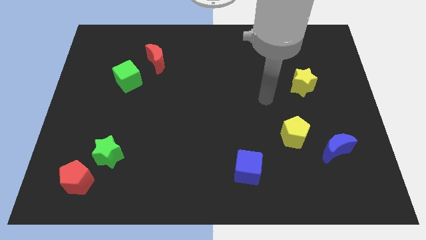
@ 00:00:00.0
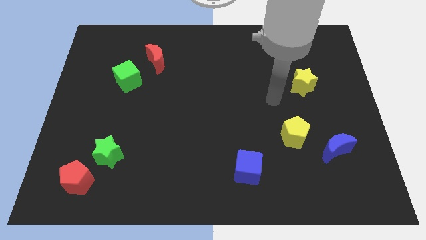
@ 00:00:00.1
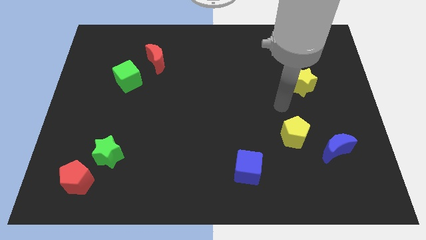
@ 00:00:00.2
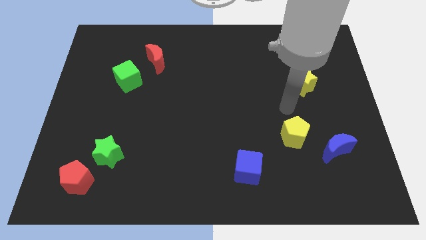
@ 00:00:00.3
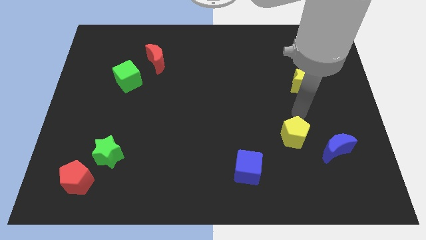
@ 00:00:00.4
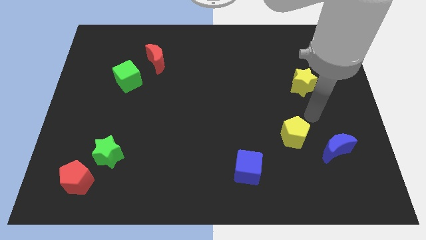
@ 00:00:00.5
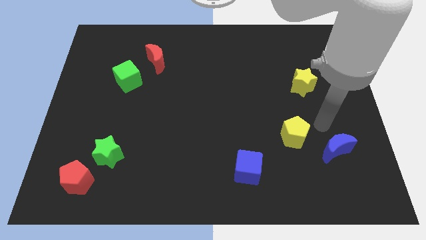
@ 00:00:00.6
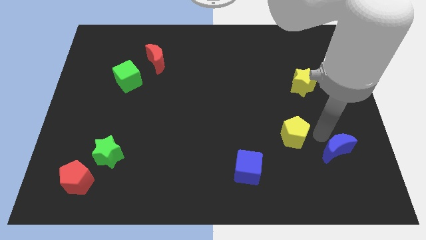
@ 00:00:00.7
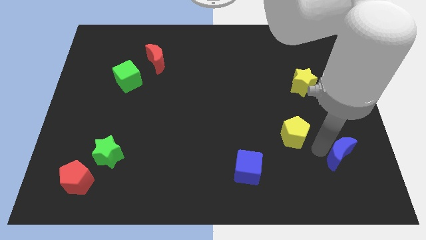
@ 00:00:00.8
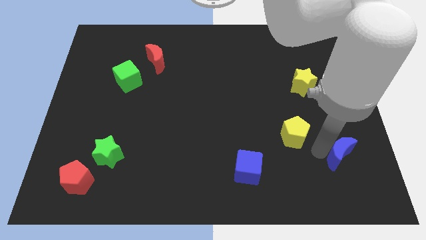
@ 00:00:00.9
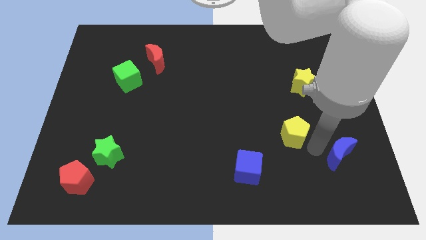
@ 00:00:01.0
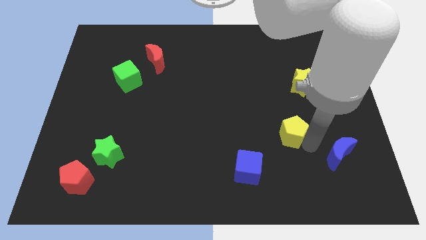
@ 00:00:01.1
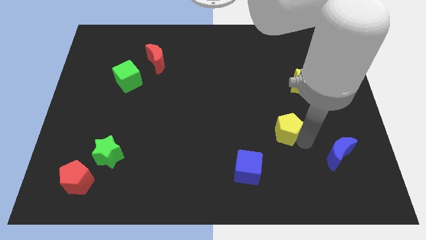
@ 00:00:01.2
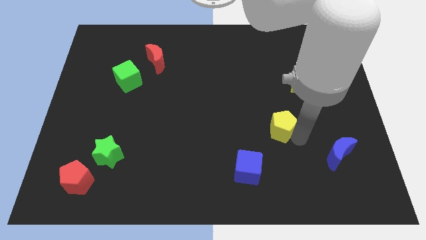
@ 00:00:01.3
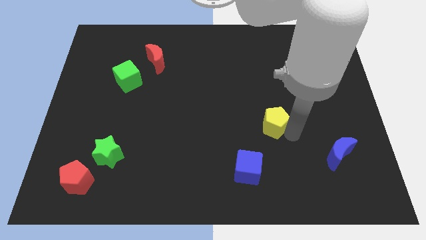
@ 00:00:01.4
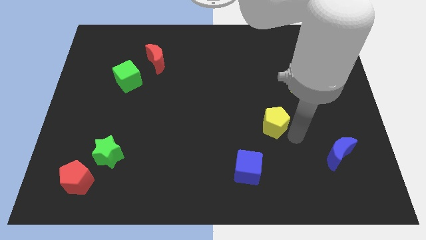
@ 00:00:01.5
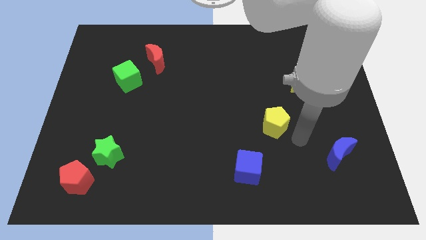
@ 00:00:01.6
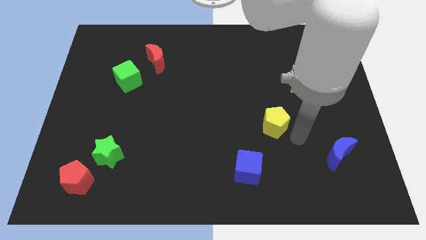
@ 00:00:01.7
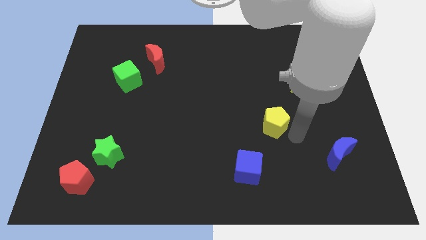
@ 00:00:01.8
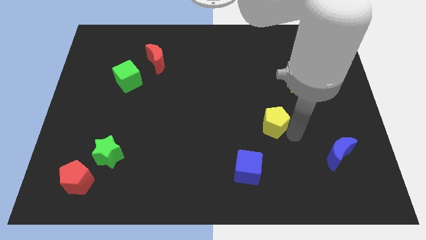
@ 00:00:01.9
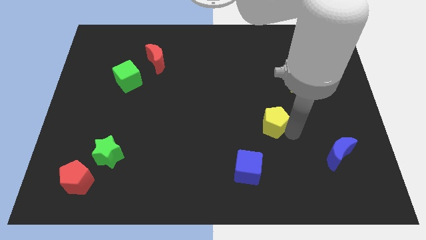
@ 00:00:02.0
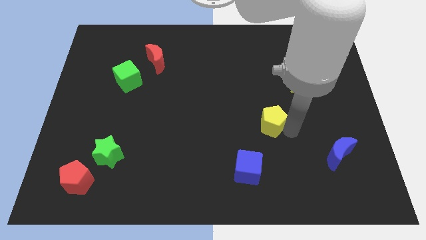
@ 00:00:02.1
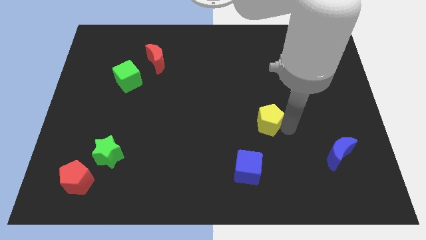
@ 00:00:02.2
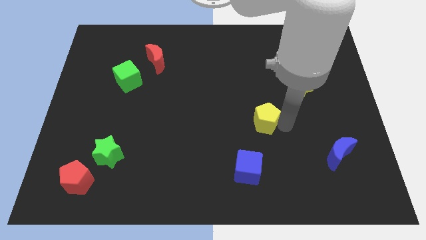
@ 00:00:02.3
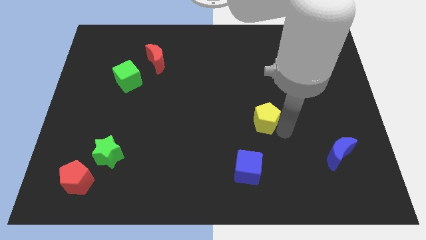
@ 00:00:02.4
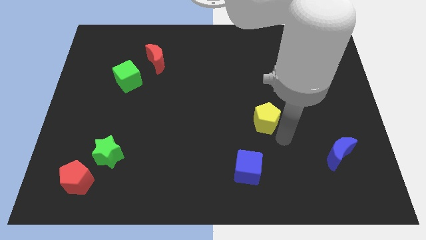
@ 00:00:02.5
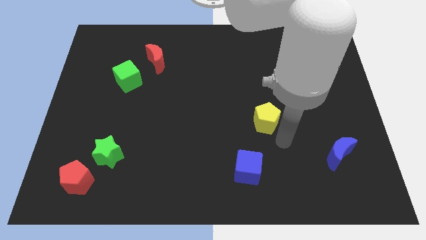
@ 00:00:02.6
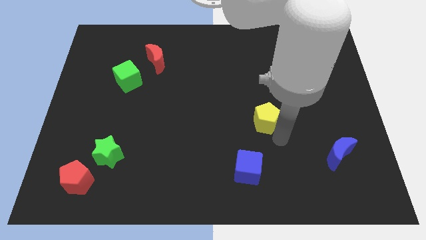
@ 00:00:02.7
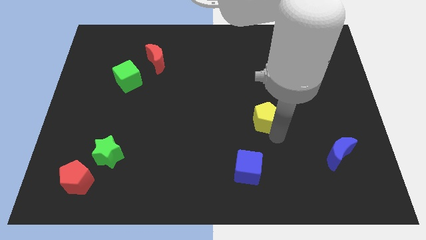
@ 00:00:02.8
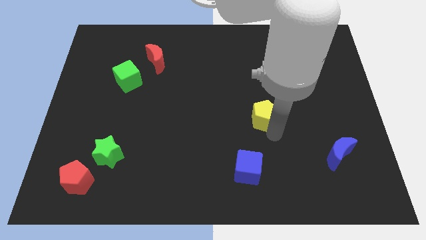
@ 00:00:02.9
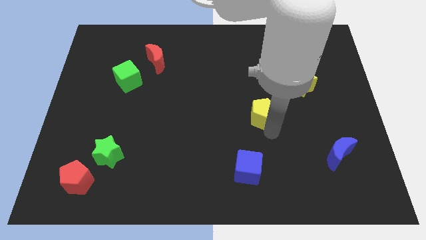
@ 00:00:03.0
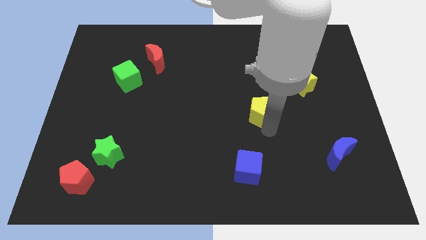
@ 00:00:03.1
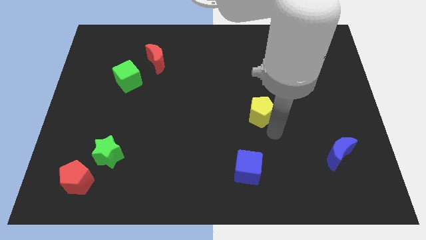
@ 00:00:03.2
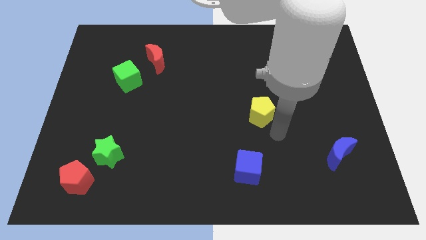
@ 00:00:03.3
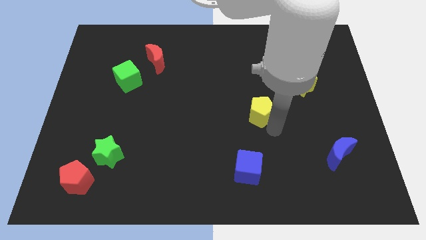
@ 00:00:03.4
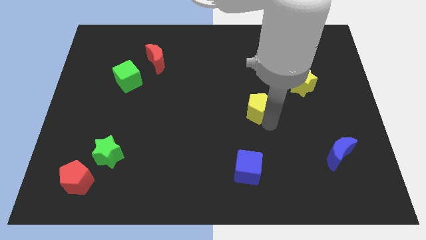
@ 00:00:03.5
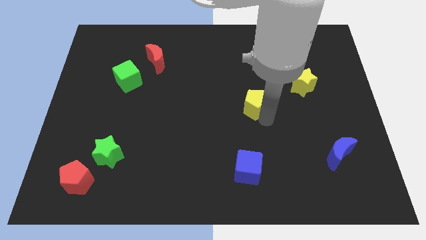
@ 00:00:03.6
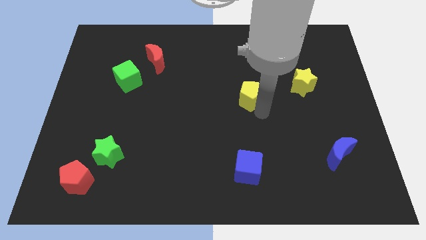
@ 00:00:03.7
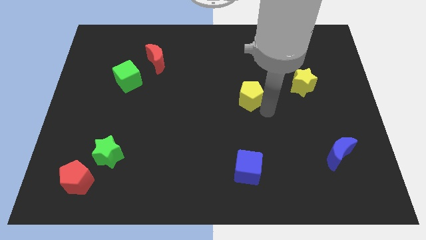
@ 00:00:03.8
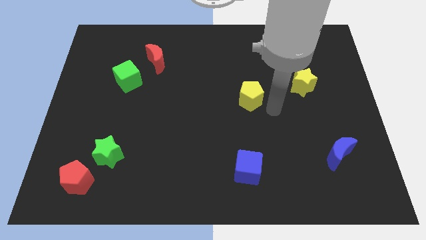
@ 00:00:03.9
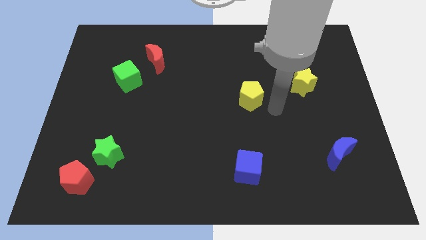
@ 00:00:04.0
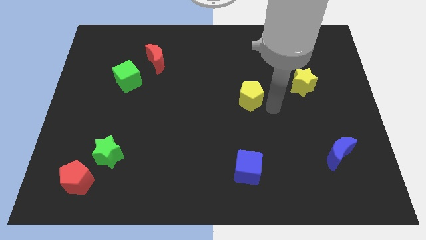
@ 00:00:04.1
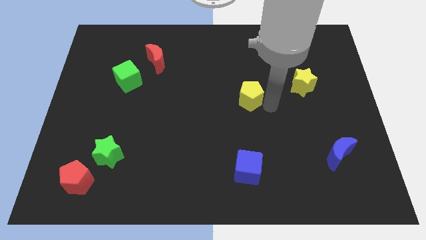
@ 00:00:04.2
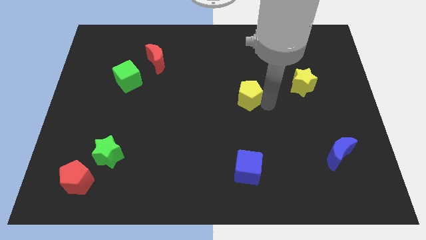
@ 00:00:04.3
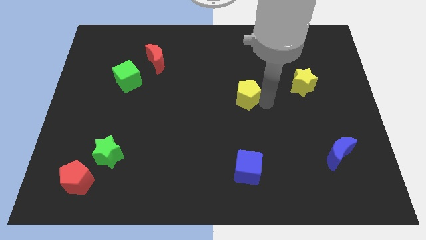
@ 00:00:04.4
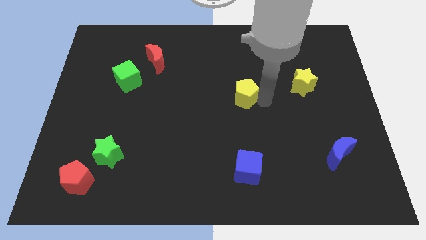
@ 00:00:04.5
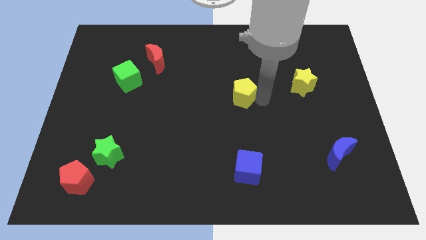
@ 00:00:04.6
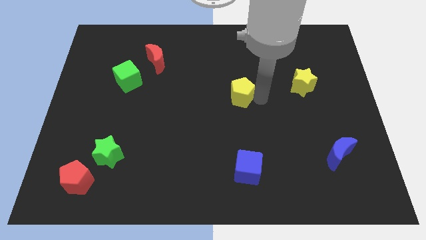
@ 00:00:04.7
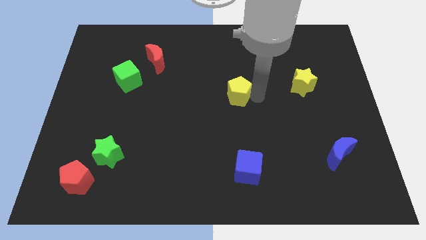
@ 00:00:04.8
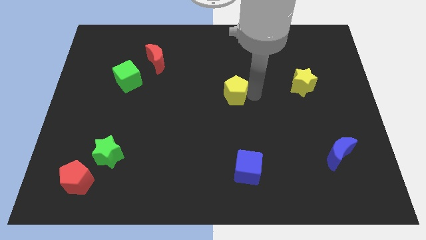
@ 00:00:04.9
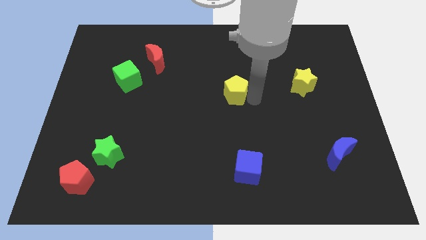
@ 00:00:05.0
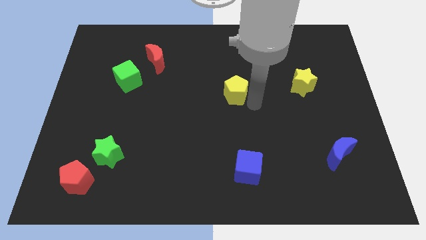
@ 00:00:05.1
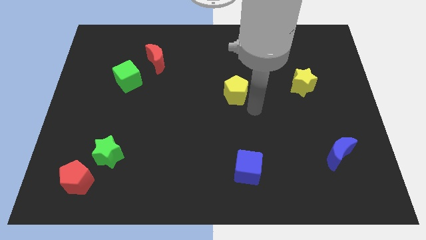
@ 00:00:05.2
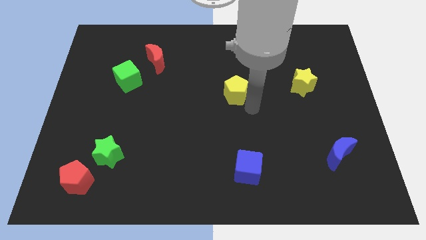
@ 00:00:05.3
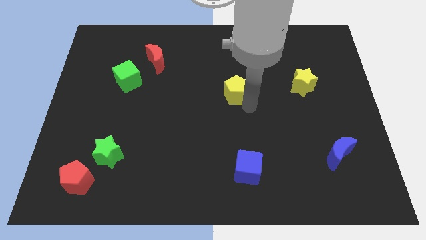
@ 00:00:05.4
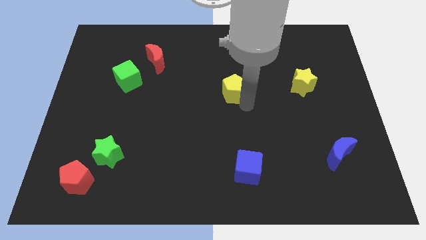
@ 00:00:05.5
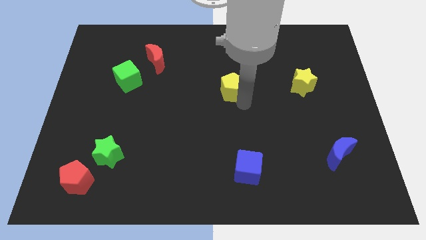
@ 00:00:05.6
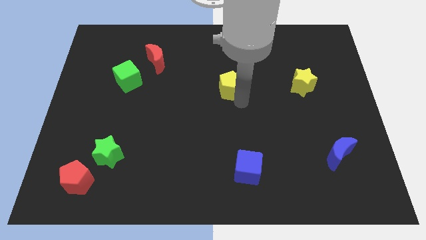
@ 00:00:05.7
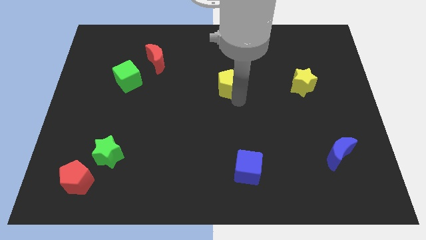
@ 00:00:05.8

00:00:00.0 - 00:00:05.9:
move the yellow pentagon diagonally up and to the left

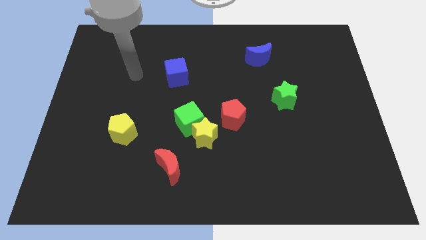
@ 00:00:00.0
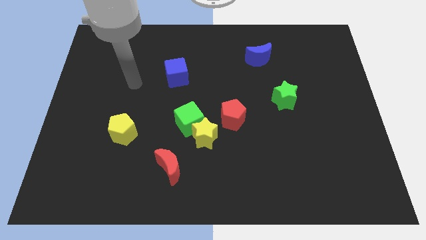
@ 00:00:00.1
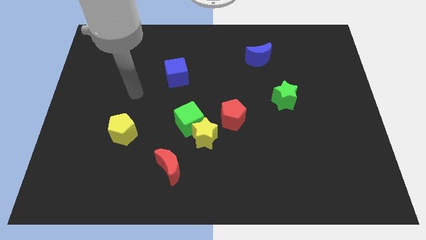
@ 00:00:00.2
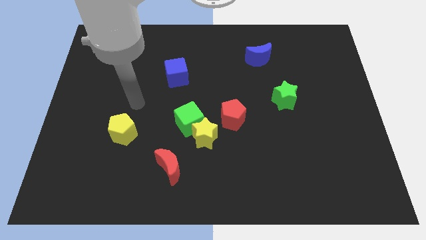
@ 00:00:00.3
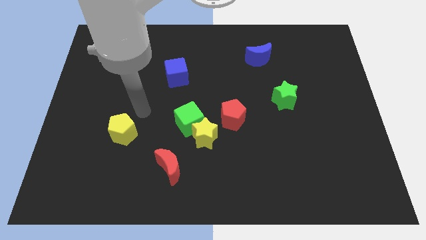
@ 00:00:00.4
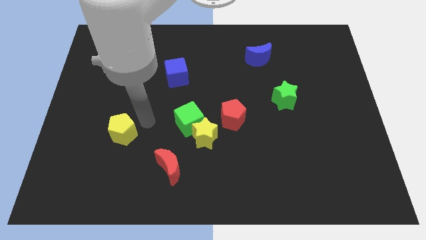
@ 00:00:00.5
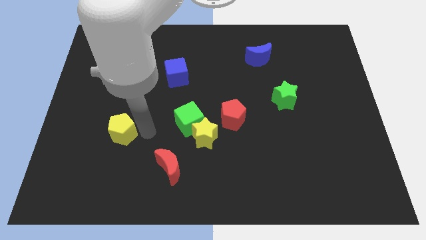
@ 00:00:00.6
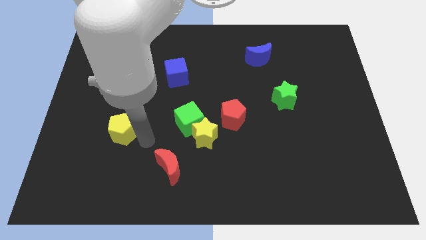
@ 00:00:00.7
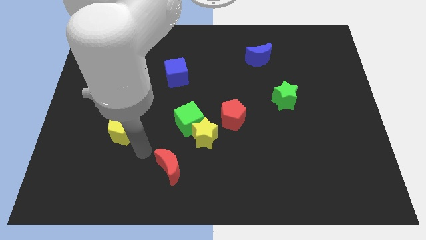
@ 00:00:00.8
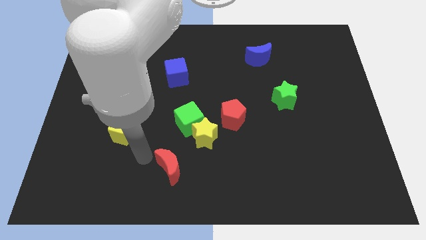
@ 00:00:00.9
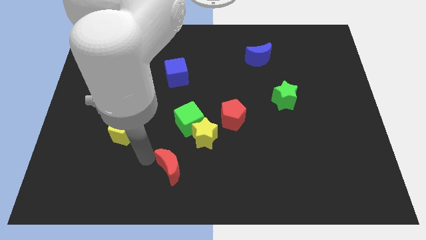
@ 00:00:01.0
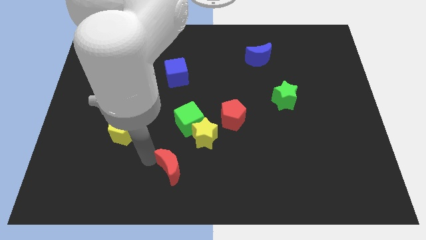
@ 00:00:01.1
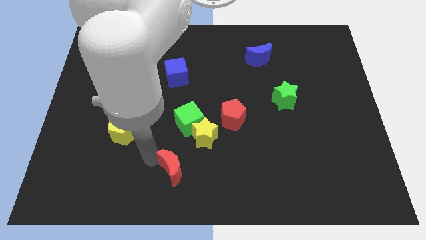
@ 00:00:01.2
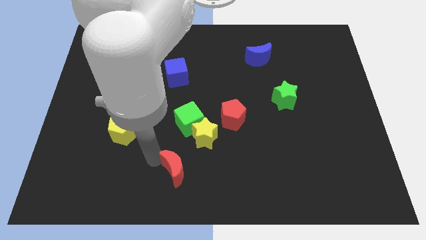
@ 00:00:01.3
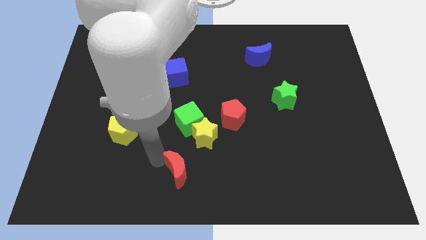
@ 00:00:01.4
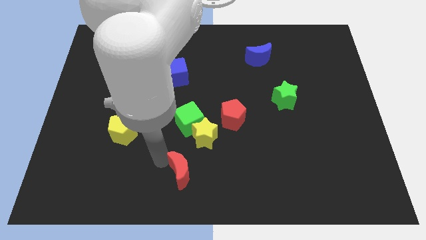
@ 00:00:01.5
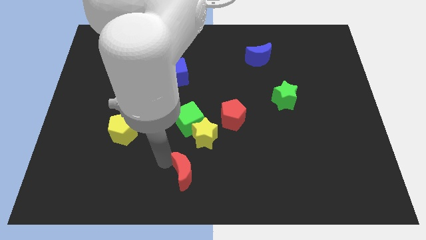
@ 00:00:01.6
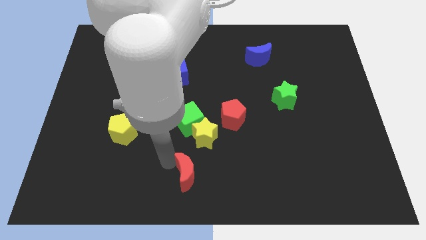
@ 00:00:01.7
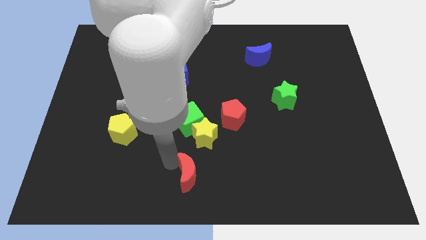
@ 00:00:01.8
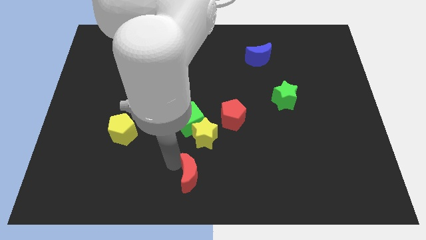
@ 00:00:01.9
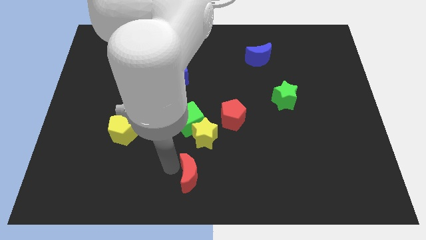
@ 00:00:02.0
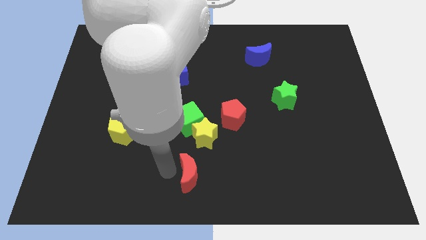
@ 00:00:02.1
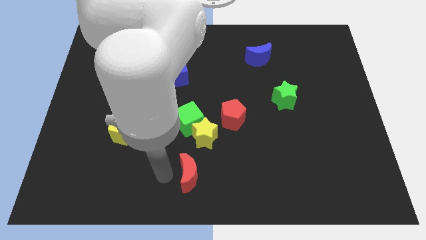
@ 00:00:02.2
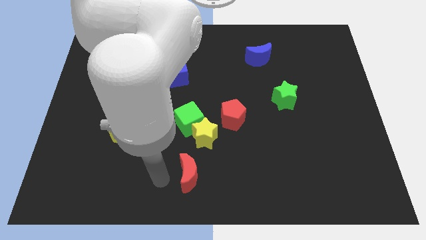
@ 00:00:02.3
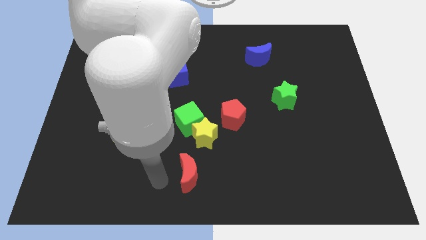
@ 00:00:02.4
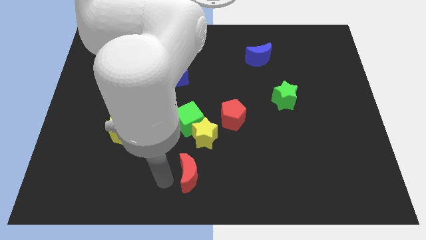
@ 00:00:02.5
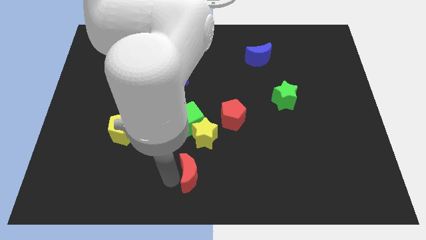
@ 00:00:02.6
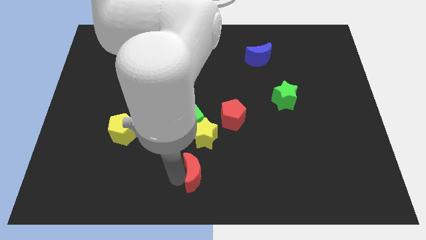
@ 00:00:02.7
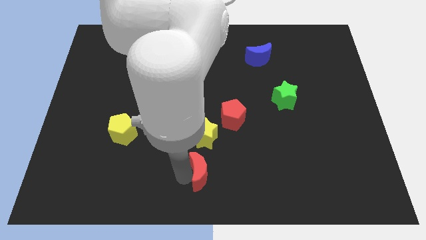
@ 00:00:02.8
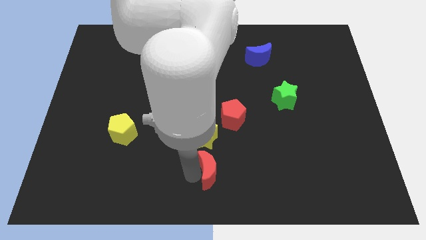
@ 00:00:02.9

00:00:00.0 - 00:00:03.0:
push the red moon to the right slightly
